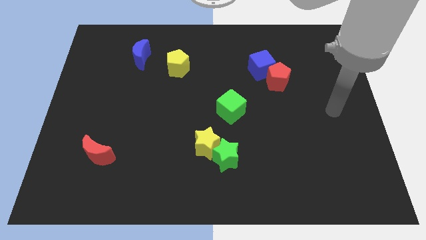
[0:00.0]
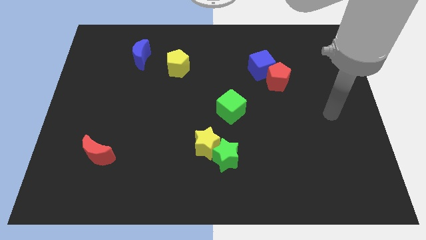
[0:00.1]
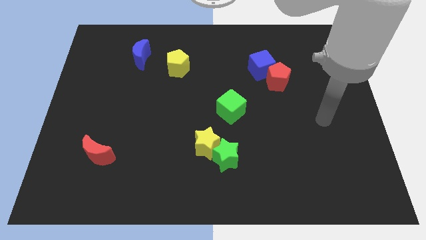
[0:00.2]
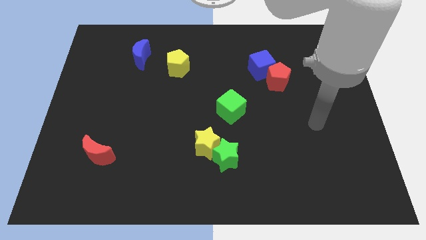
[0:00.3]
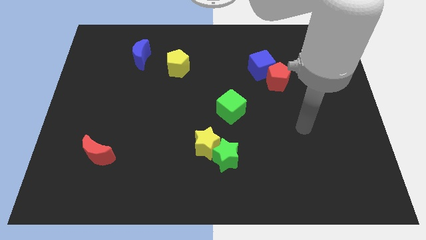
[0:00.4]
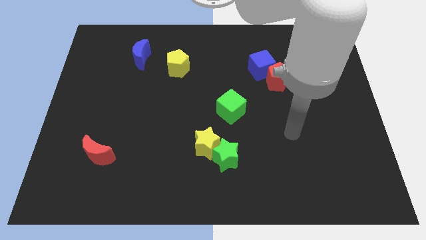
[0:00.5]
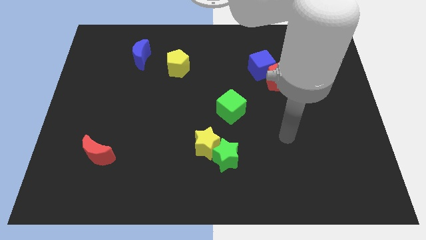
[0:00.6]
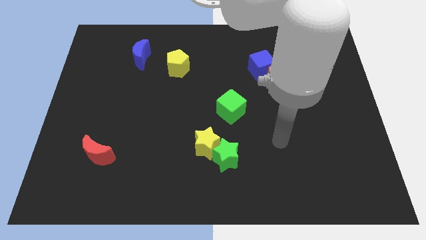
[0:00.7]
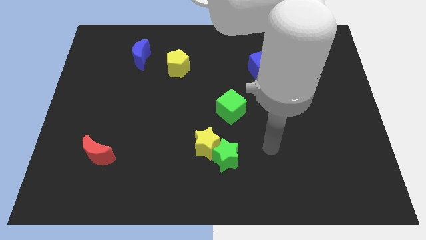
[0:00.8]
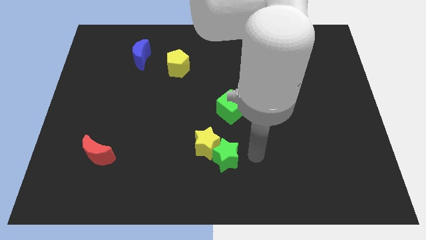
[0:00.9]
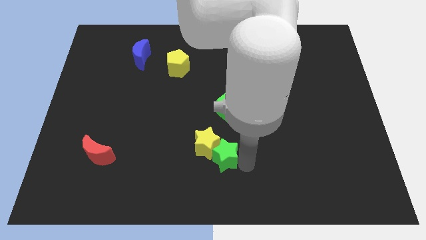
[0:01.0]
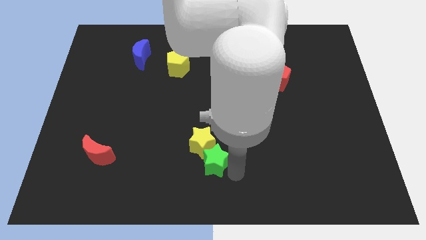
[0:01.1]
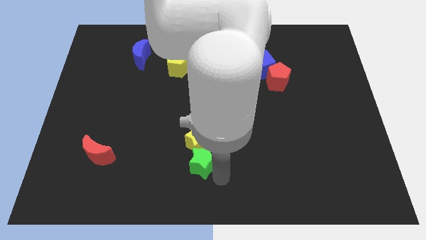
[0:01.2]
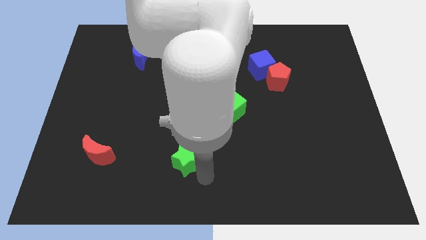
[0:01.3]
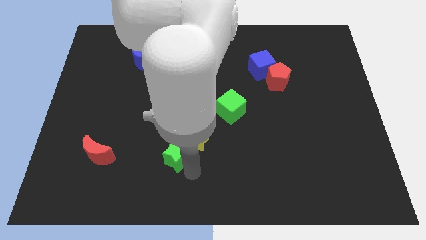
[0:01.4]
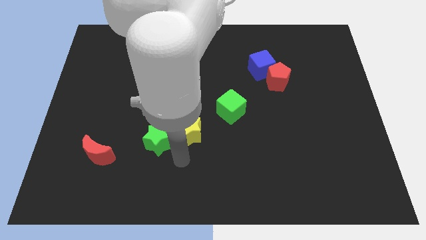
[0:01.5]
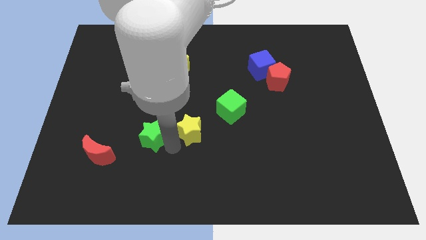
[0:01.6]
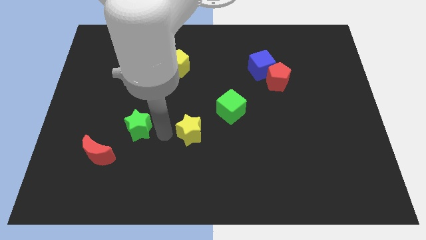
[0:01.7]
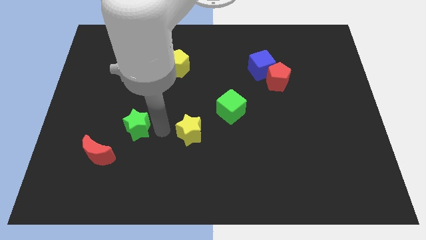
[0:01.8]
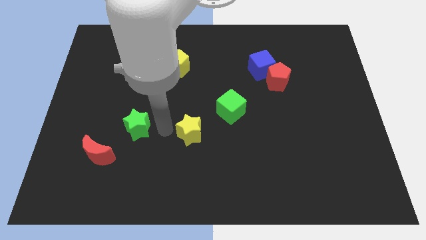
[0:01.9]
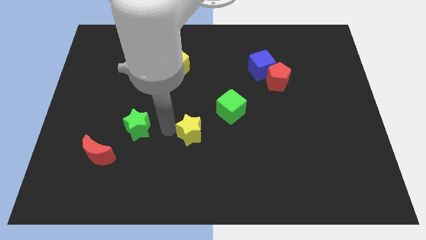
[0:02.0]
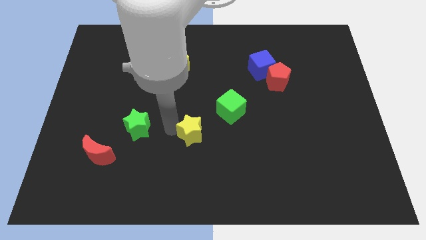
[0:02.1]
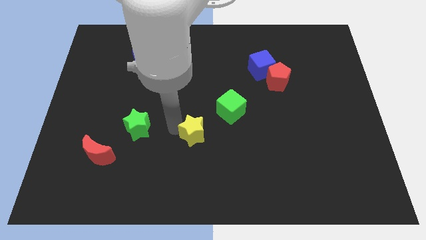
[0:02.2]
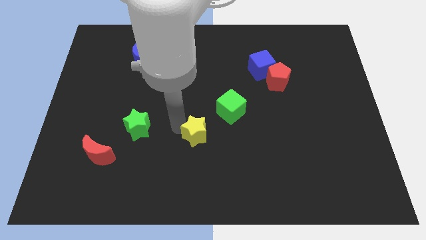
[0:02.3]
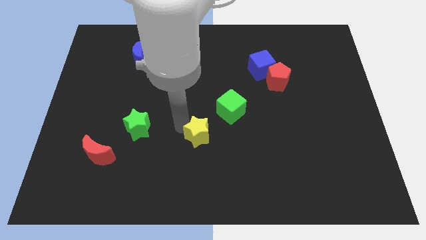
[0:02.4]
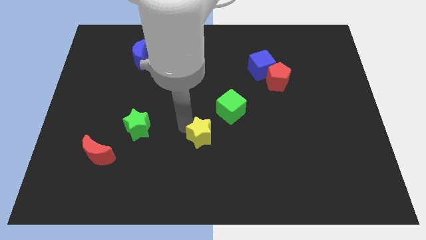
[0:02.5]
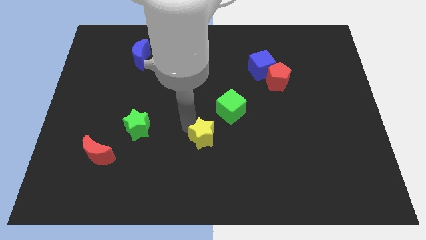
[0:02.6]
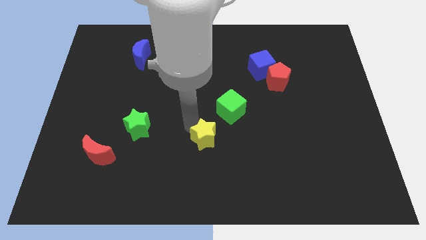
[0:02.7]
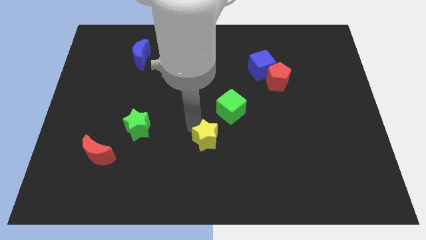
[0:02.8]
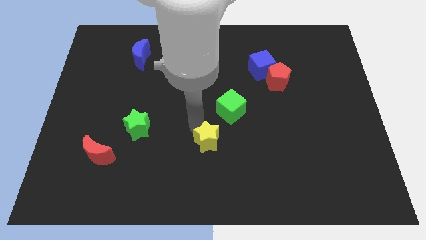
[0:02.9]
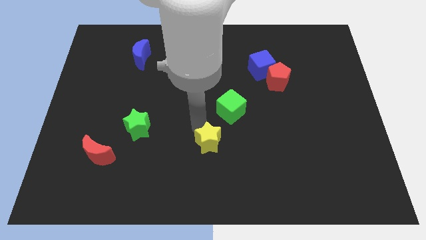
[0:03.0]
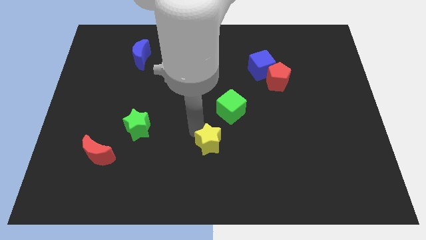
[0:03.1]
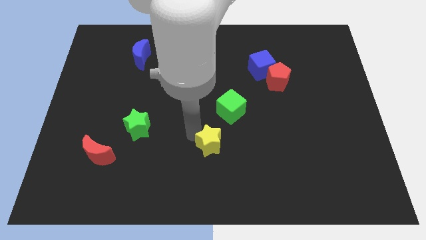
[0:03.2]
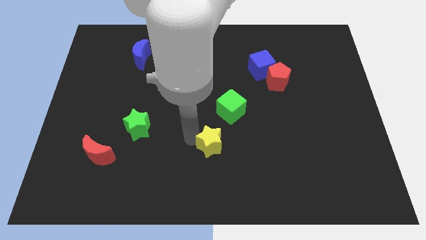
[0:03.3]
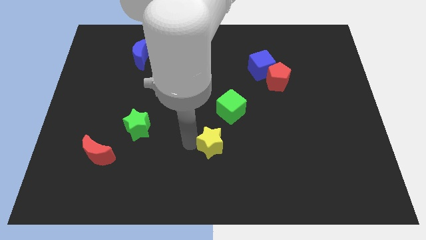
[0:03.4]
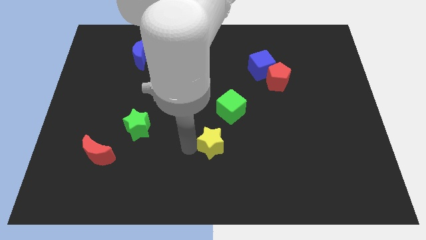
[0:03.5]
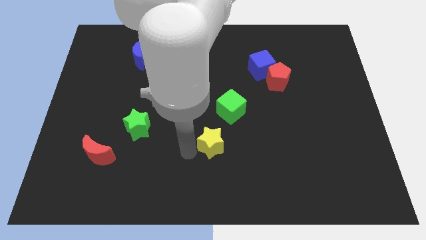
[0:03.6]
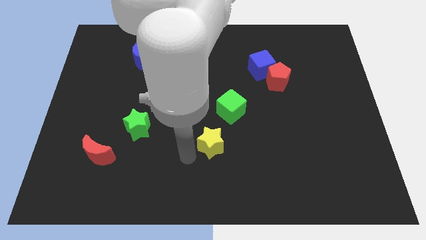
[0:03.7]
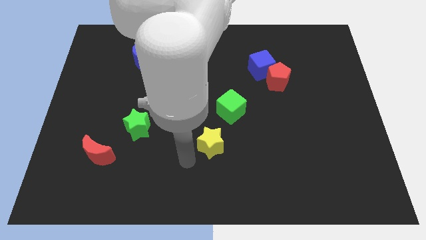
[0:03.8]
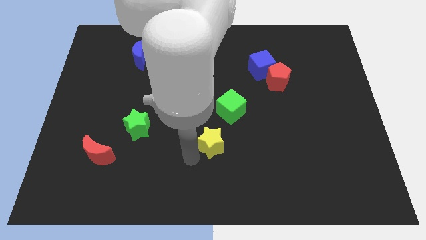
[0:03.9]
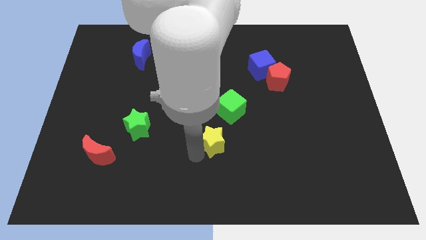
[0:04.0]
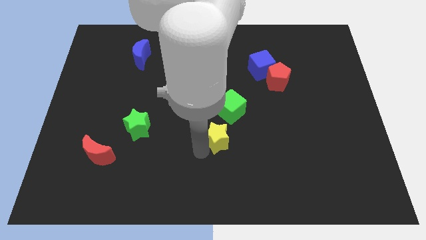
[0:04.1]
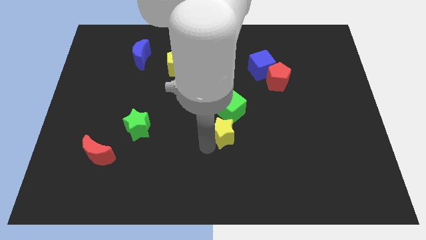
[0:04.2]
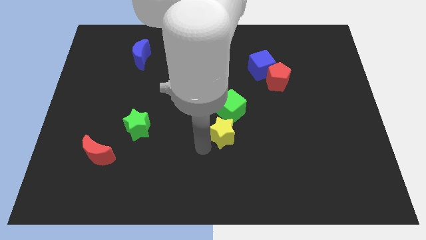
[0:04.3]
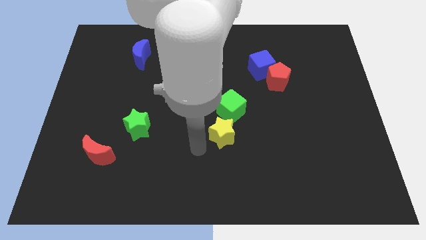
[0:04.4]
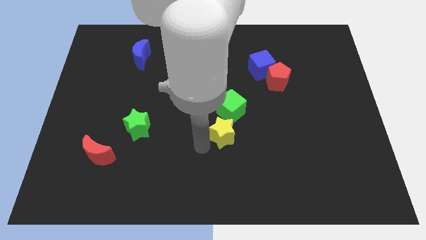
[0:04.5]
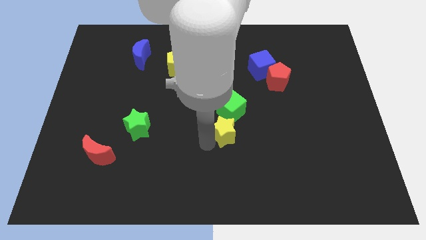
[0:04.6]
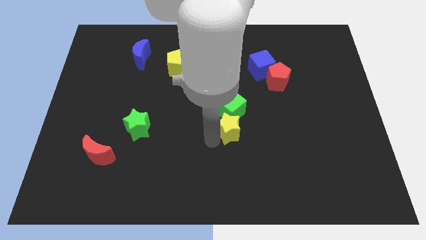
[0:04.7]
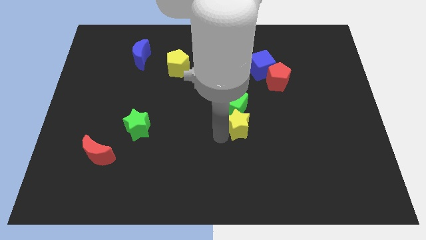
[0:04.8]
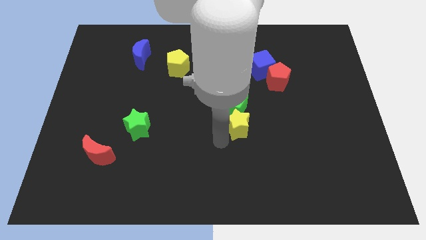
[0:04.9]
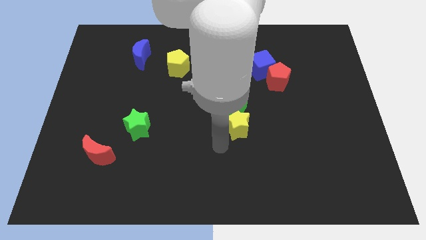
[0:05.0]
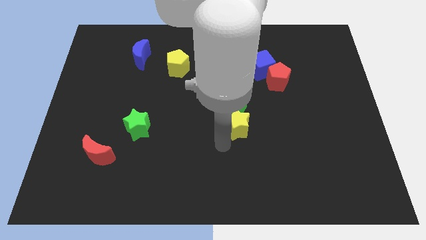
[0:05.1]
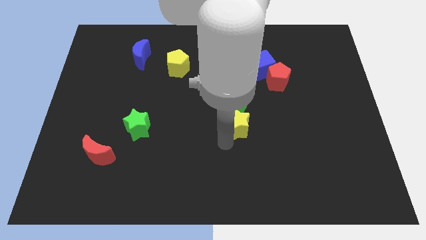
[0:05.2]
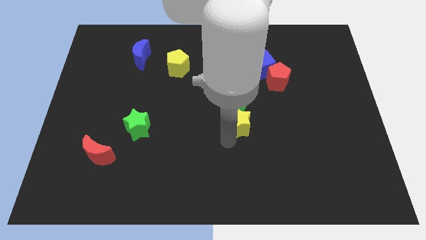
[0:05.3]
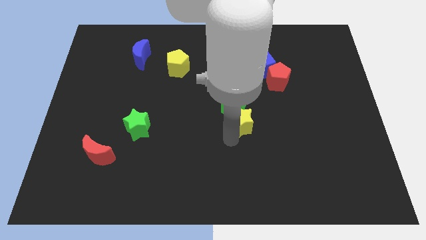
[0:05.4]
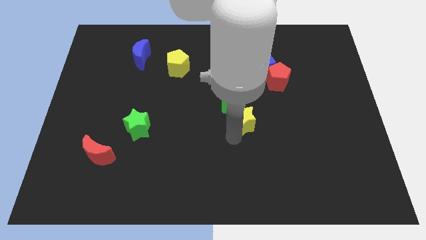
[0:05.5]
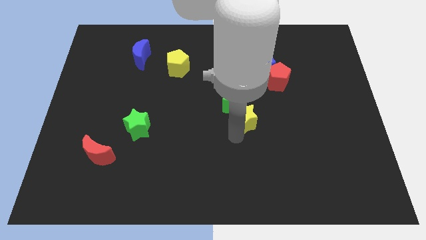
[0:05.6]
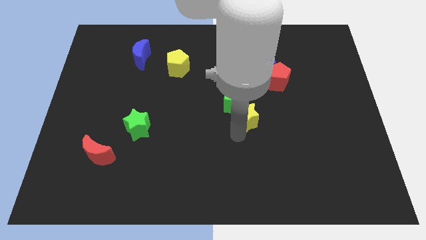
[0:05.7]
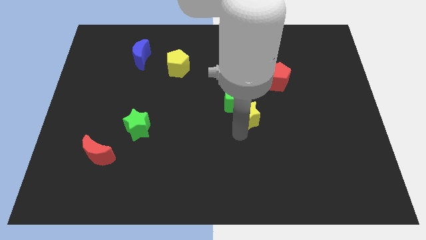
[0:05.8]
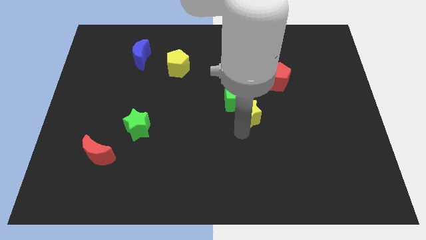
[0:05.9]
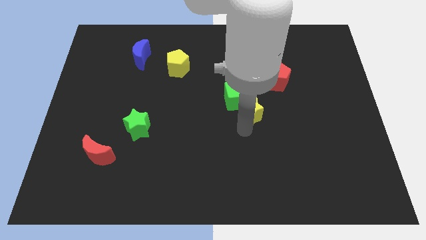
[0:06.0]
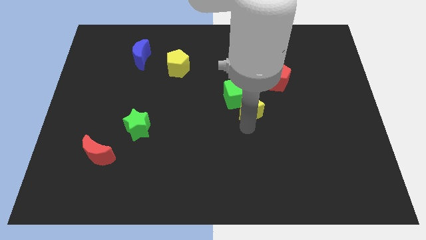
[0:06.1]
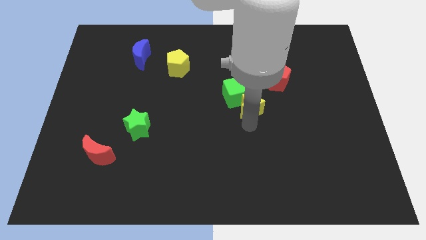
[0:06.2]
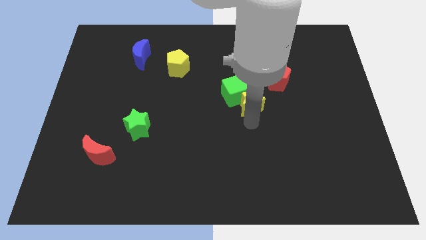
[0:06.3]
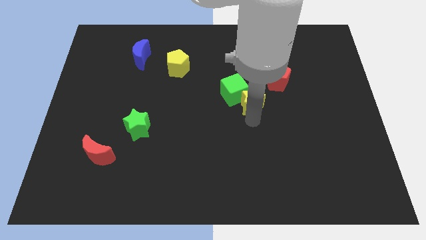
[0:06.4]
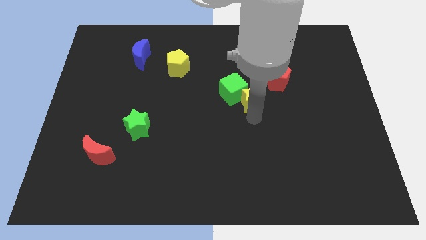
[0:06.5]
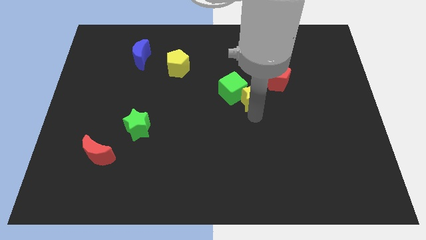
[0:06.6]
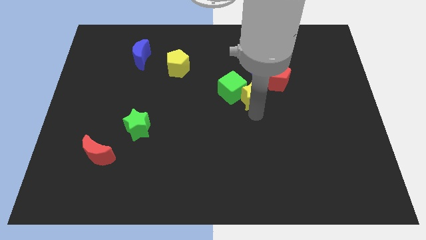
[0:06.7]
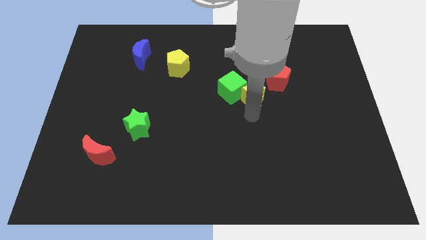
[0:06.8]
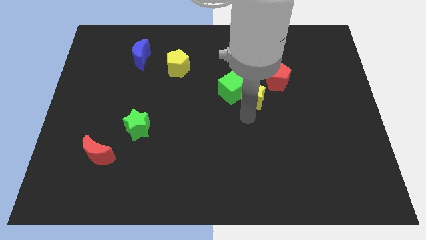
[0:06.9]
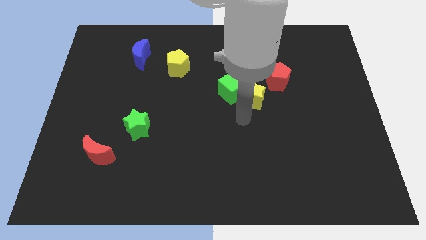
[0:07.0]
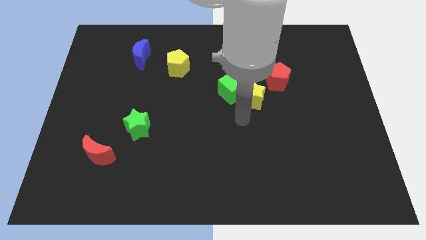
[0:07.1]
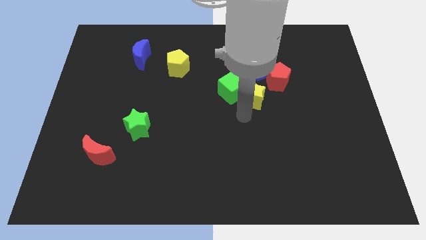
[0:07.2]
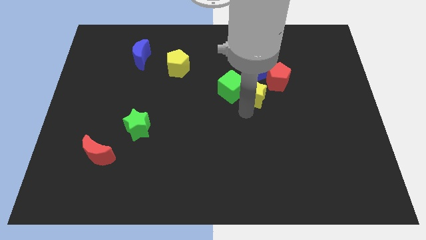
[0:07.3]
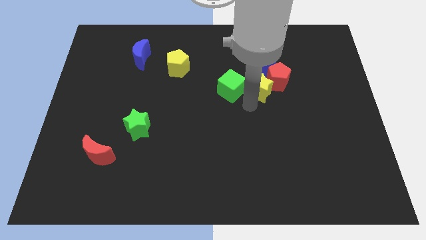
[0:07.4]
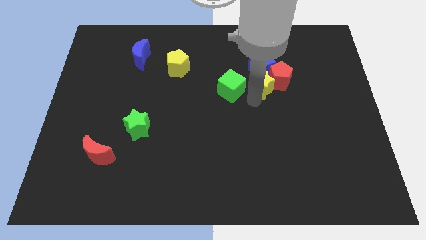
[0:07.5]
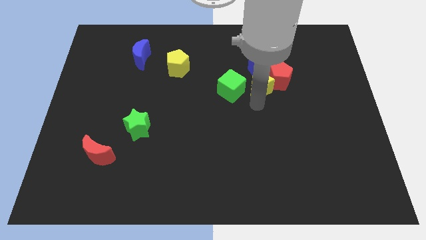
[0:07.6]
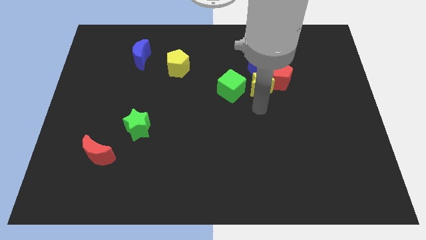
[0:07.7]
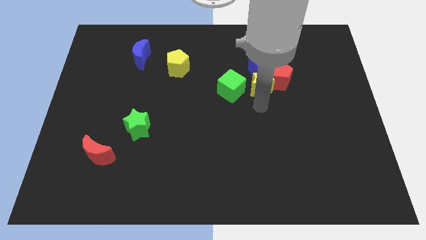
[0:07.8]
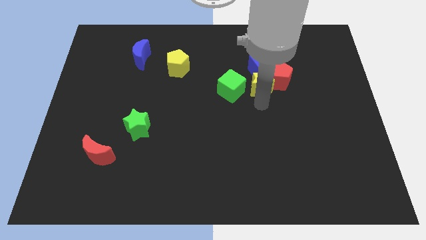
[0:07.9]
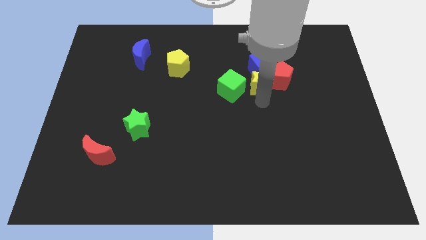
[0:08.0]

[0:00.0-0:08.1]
move the yellow star to the blue cube

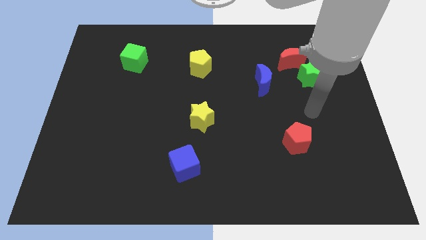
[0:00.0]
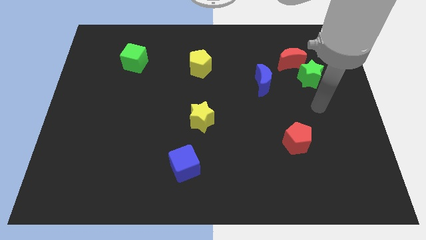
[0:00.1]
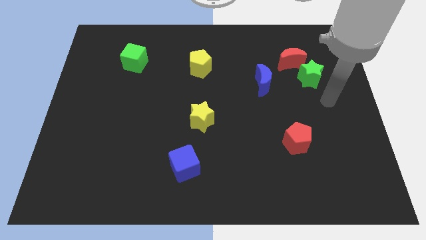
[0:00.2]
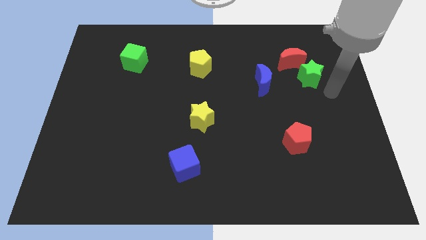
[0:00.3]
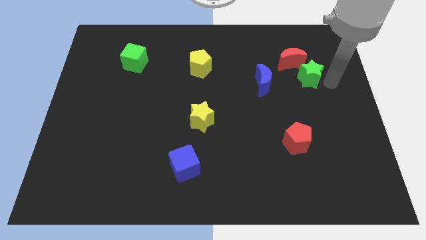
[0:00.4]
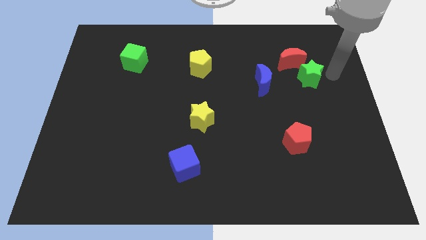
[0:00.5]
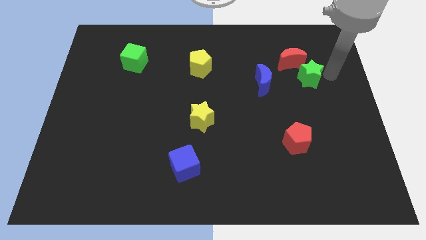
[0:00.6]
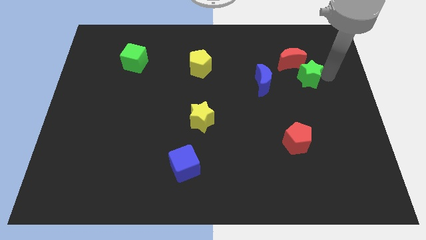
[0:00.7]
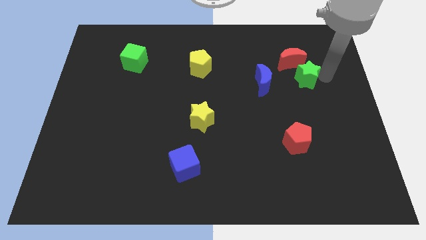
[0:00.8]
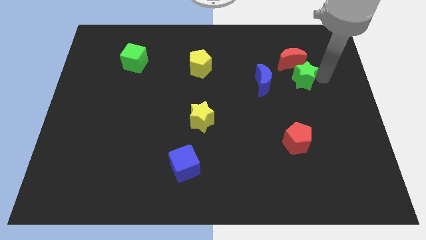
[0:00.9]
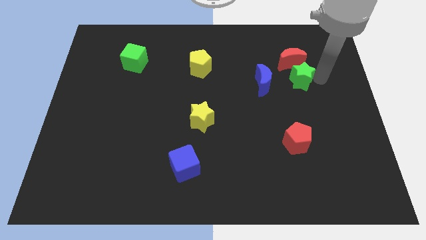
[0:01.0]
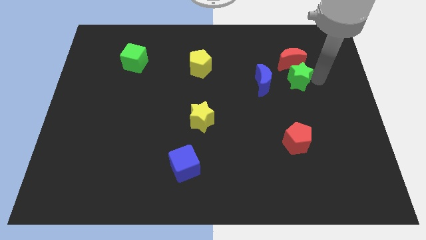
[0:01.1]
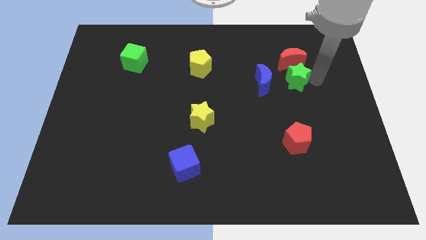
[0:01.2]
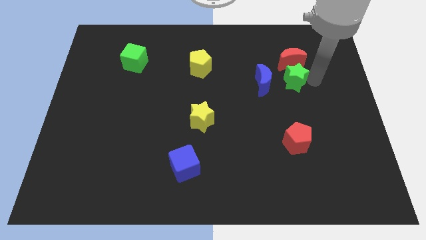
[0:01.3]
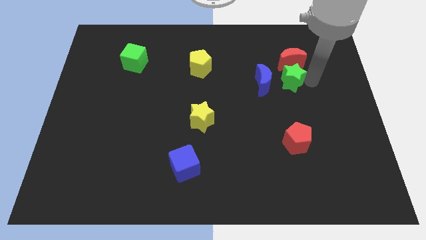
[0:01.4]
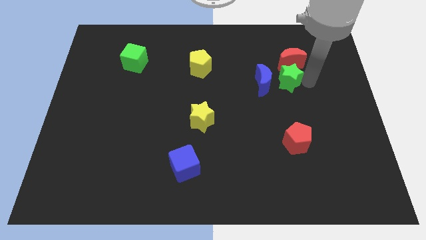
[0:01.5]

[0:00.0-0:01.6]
put the green star next to the blue moon
